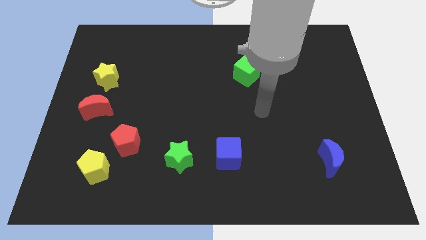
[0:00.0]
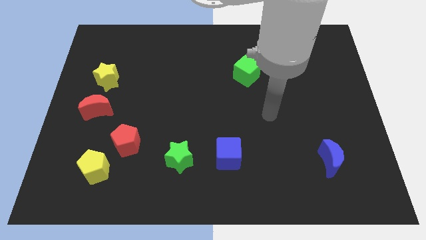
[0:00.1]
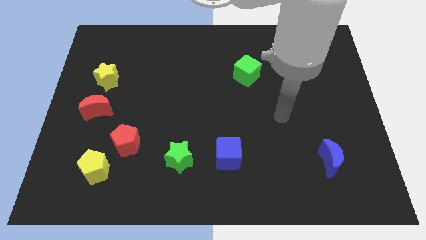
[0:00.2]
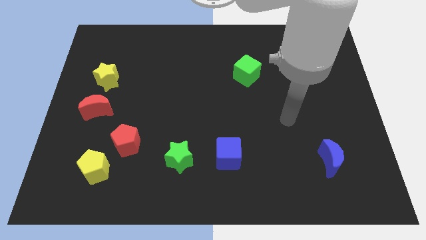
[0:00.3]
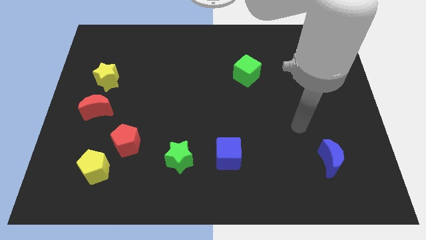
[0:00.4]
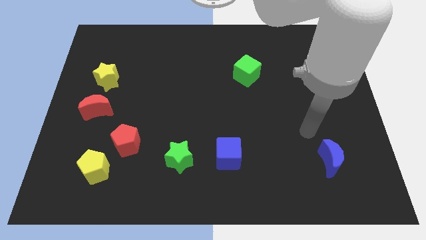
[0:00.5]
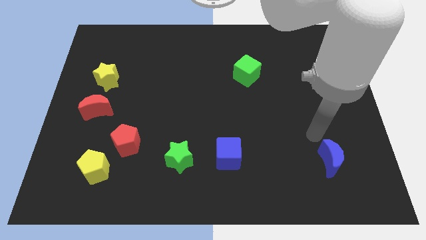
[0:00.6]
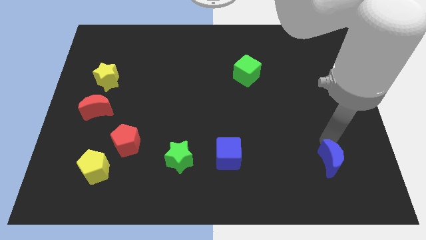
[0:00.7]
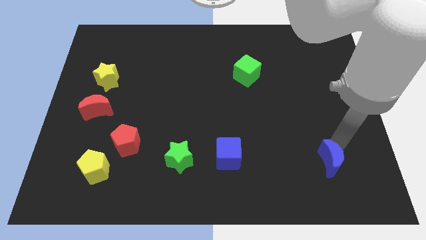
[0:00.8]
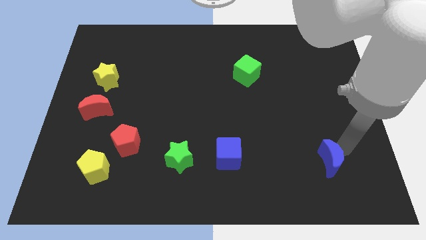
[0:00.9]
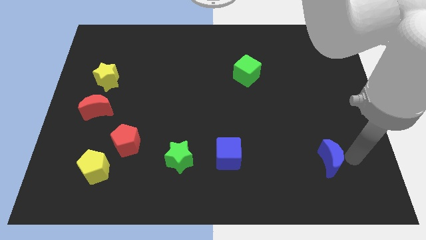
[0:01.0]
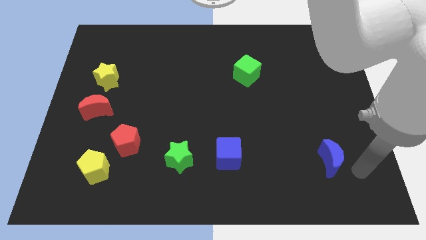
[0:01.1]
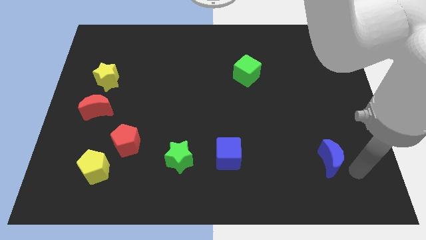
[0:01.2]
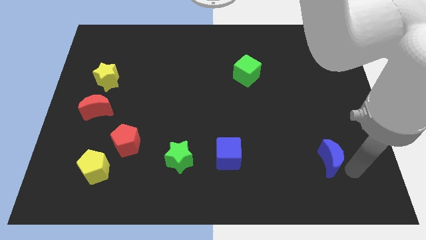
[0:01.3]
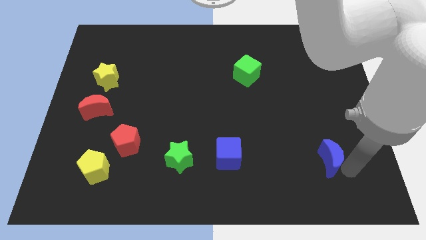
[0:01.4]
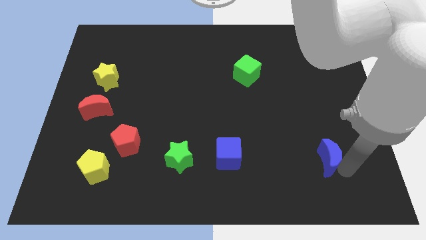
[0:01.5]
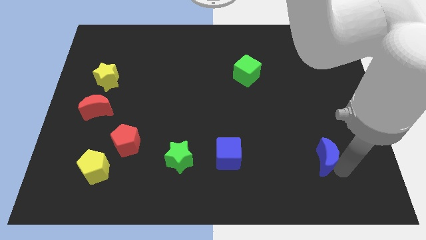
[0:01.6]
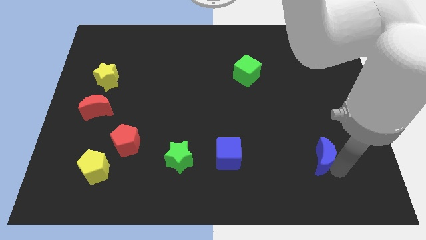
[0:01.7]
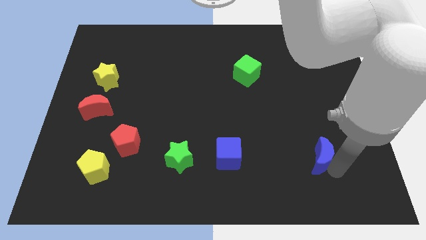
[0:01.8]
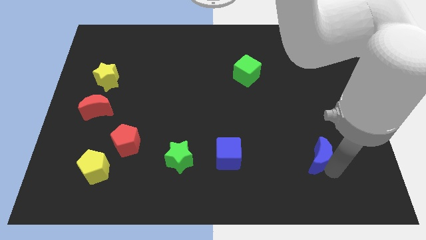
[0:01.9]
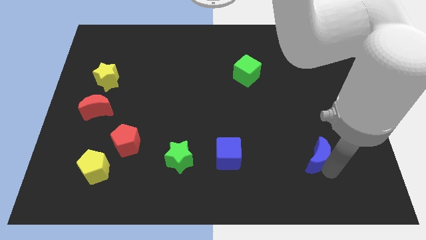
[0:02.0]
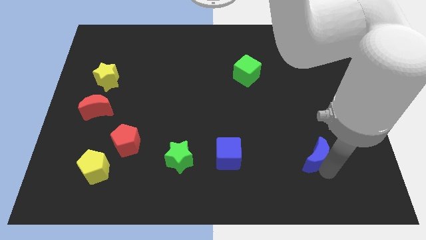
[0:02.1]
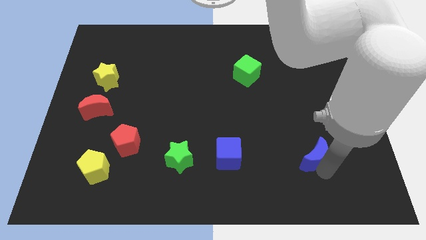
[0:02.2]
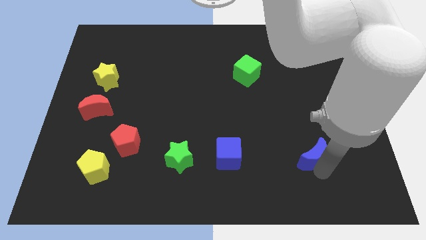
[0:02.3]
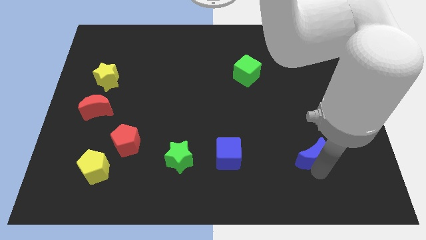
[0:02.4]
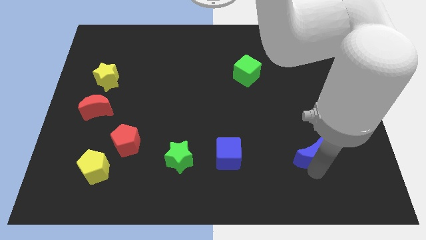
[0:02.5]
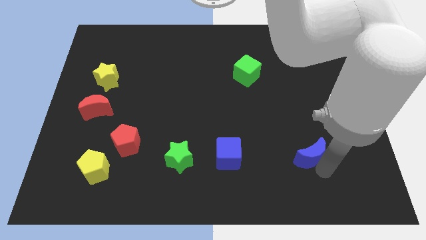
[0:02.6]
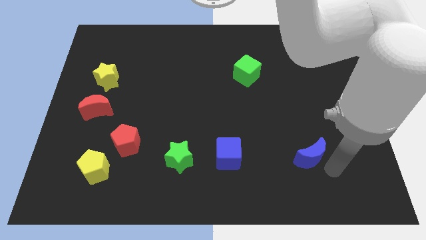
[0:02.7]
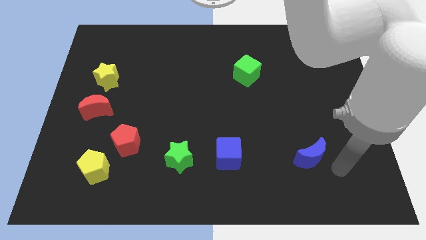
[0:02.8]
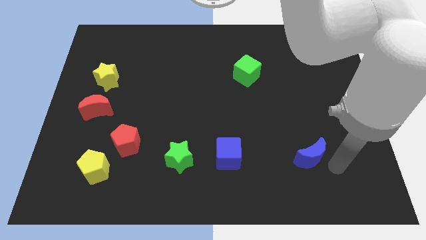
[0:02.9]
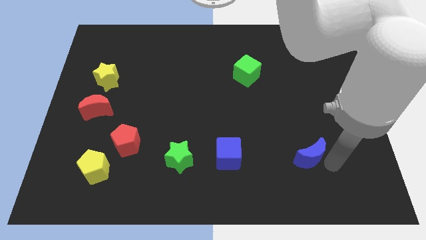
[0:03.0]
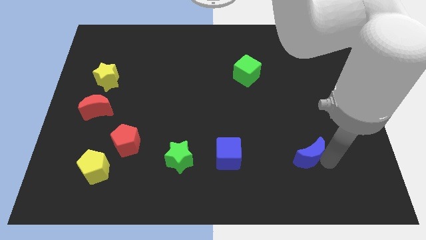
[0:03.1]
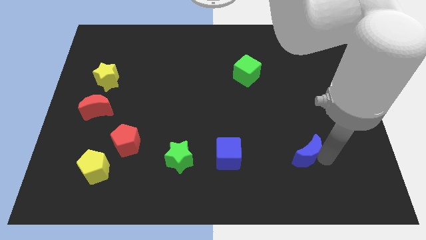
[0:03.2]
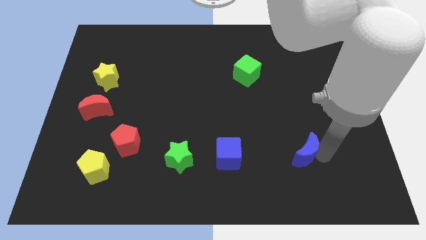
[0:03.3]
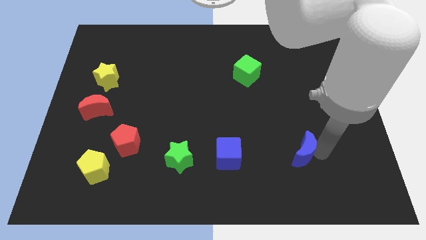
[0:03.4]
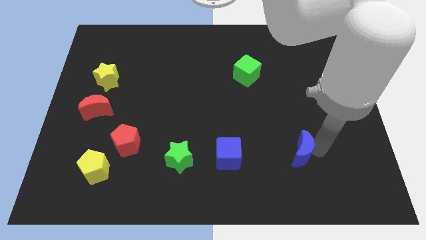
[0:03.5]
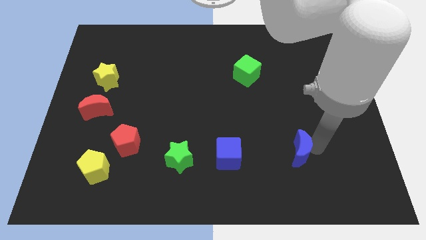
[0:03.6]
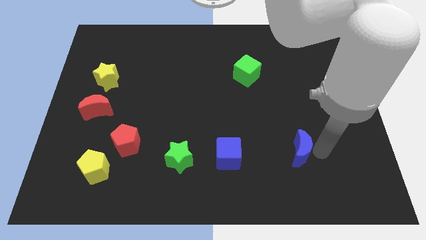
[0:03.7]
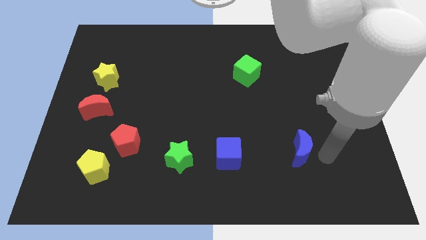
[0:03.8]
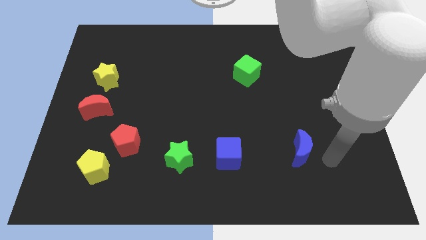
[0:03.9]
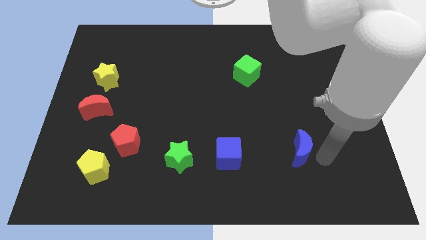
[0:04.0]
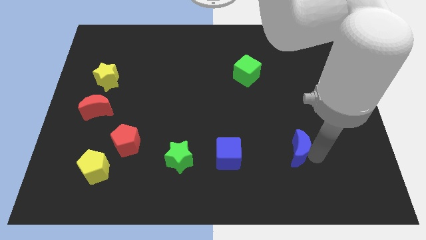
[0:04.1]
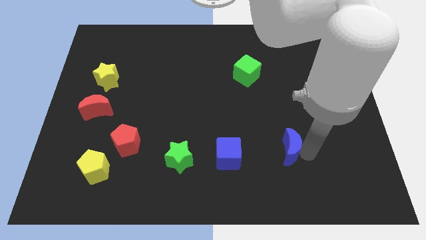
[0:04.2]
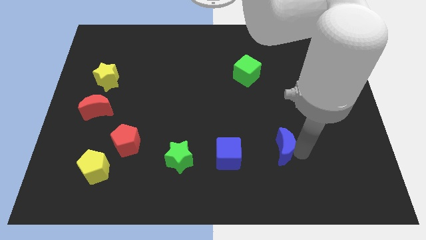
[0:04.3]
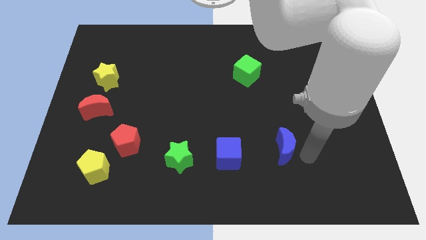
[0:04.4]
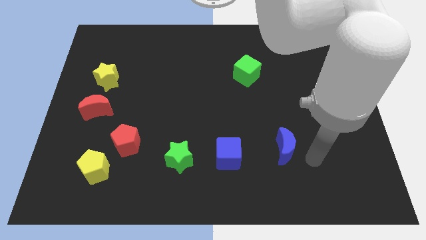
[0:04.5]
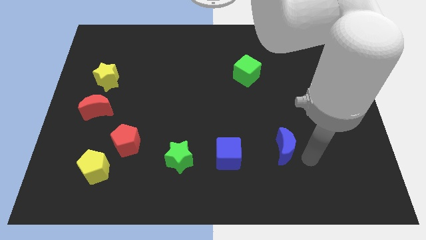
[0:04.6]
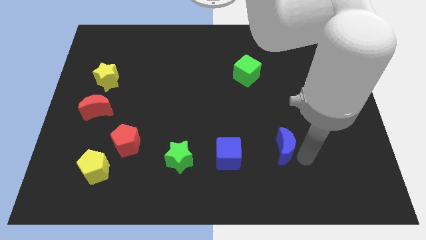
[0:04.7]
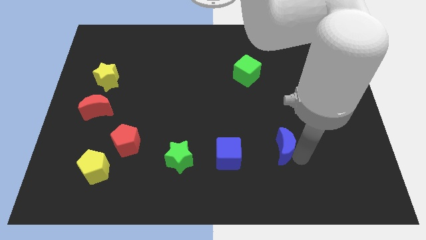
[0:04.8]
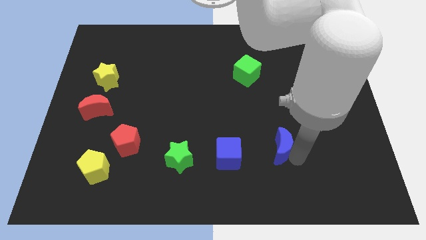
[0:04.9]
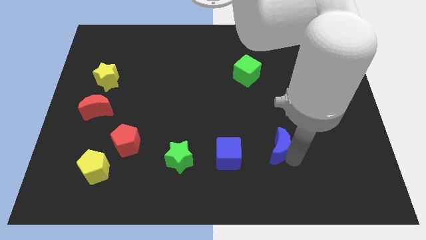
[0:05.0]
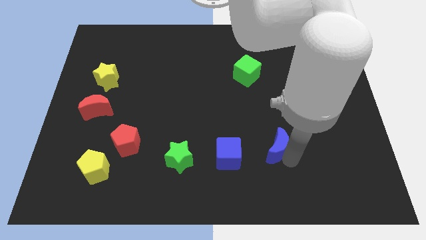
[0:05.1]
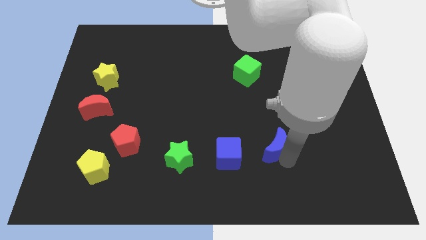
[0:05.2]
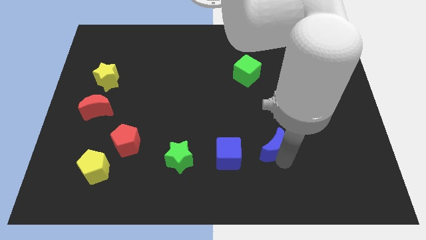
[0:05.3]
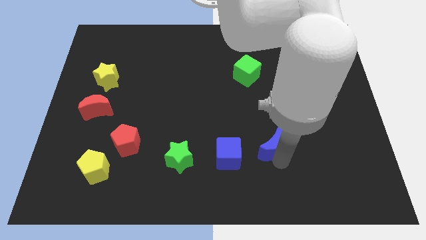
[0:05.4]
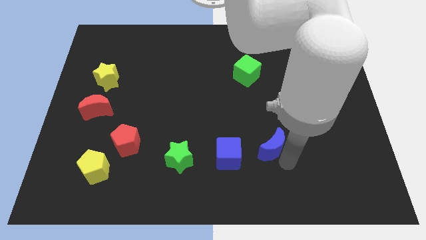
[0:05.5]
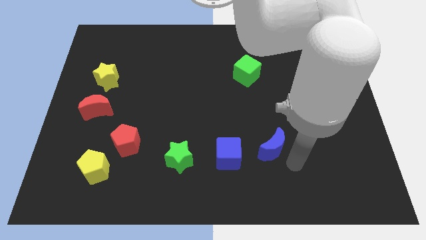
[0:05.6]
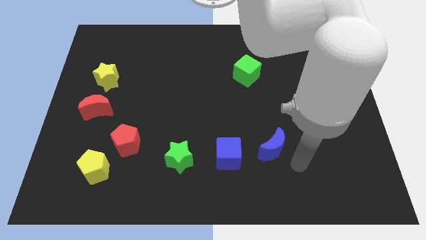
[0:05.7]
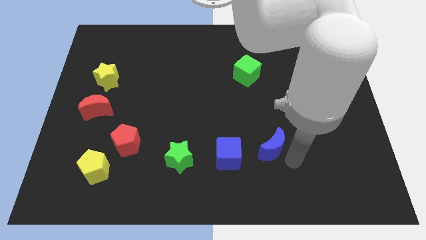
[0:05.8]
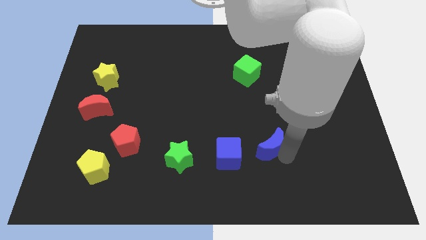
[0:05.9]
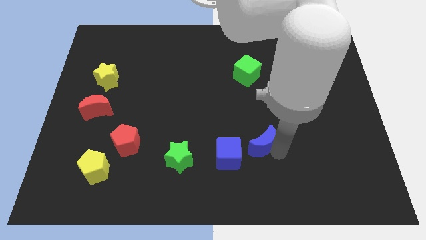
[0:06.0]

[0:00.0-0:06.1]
slide the blue moon diagonally up and to the right of the blue cube

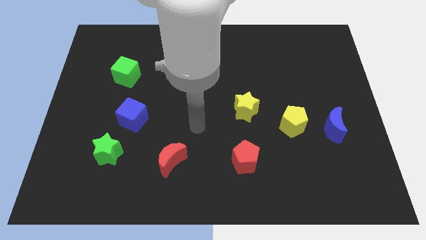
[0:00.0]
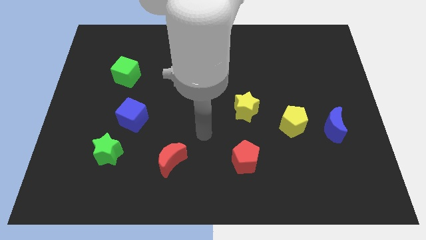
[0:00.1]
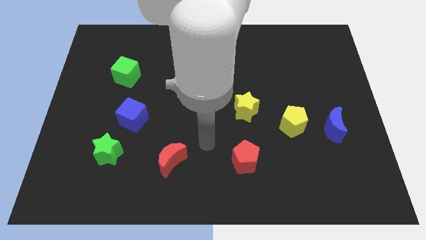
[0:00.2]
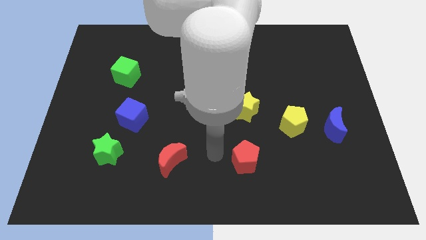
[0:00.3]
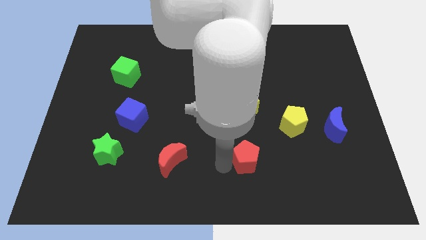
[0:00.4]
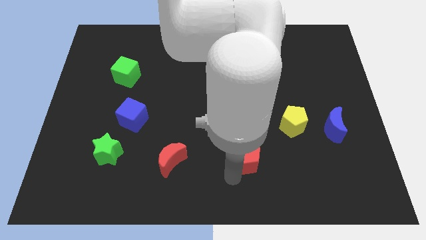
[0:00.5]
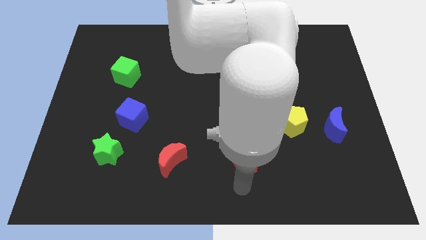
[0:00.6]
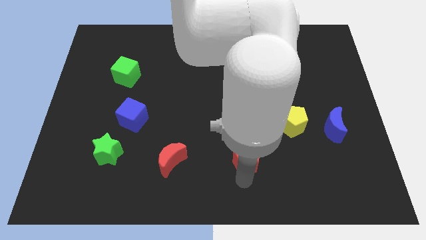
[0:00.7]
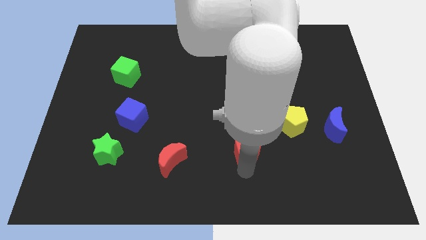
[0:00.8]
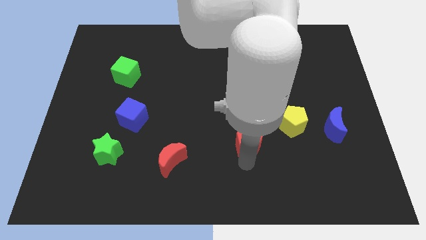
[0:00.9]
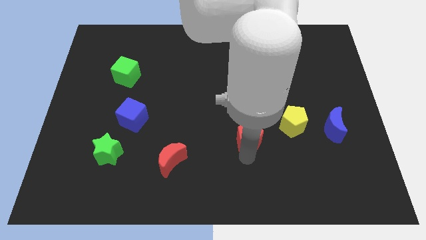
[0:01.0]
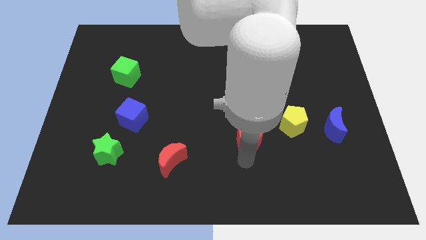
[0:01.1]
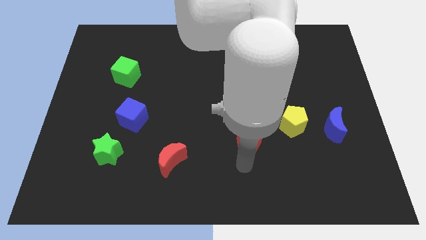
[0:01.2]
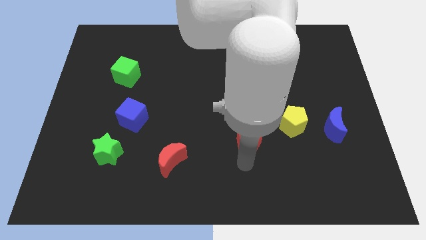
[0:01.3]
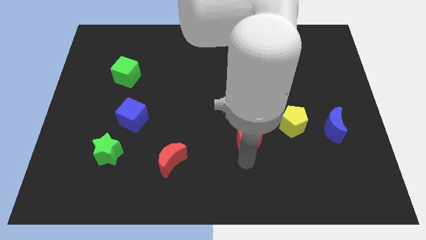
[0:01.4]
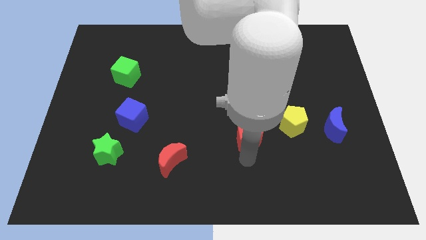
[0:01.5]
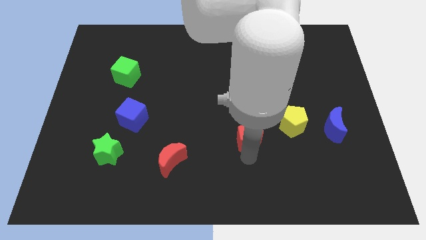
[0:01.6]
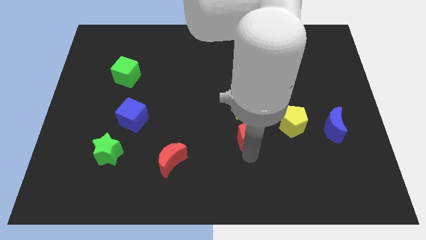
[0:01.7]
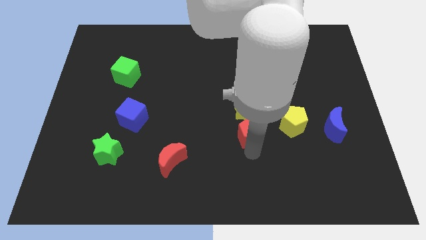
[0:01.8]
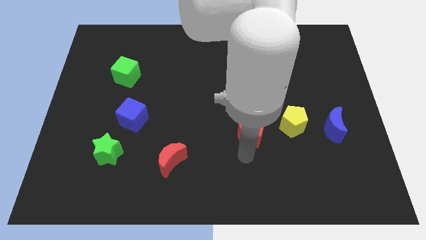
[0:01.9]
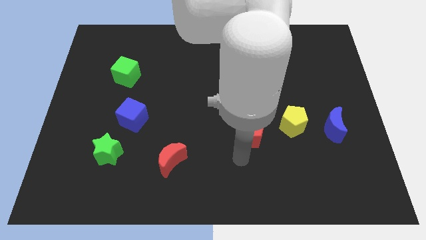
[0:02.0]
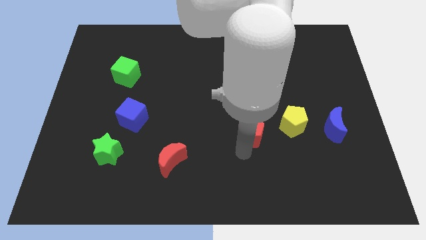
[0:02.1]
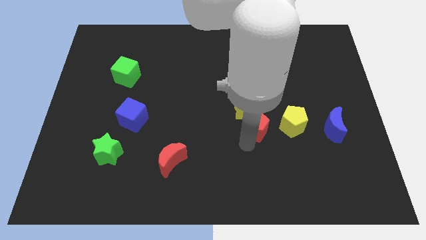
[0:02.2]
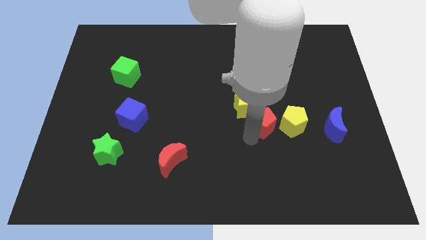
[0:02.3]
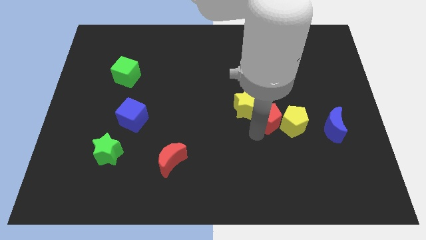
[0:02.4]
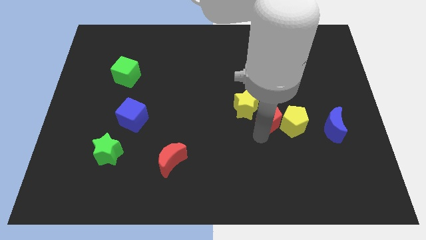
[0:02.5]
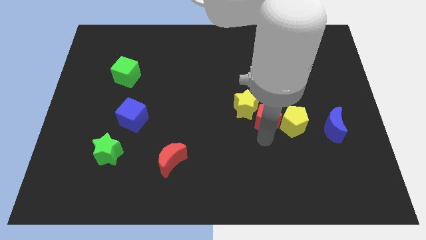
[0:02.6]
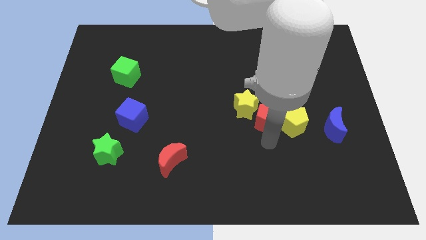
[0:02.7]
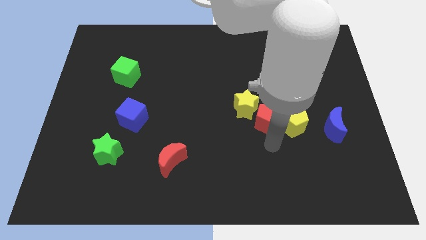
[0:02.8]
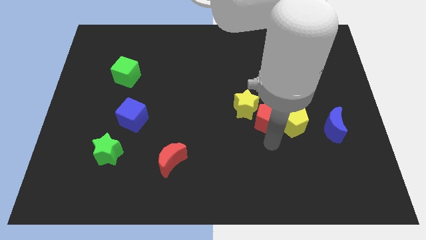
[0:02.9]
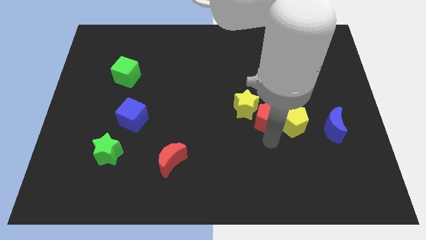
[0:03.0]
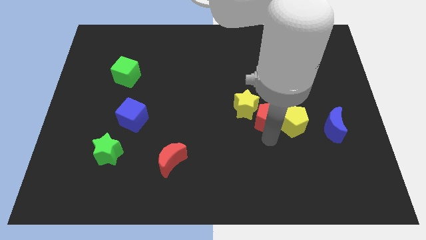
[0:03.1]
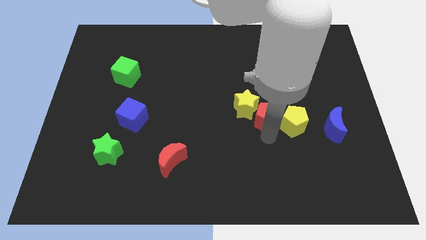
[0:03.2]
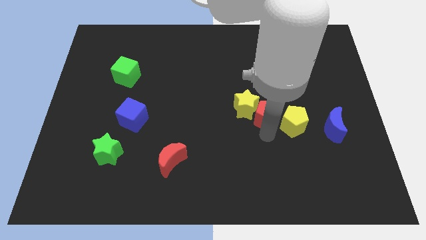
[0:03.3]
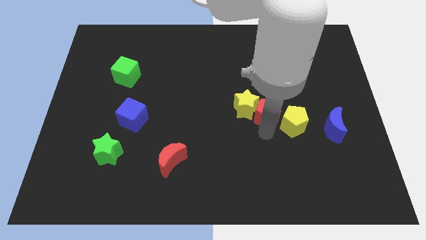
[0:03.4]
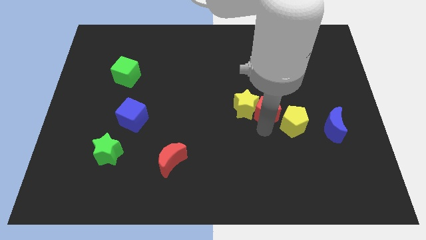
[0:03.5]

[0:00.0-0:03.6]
push the red pentagon to the top right of the yellow star
